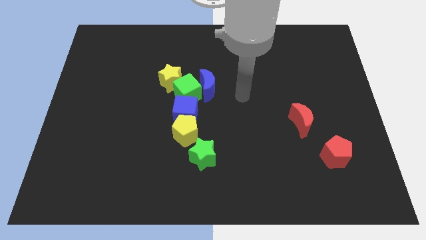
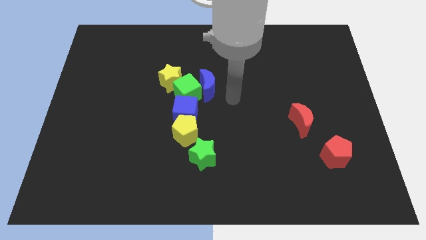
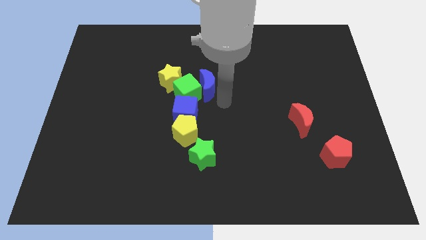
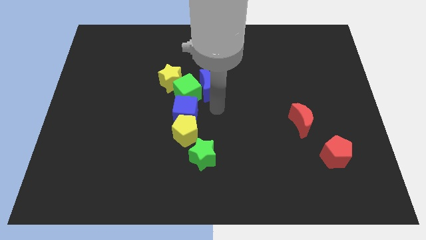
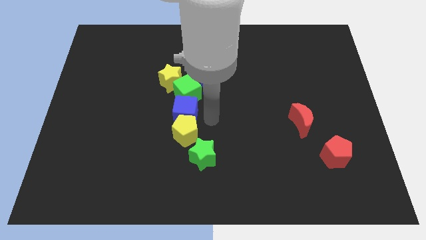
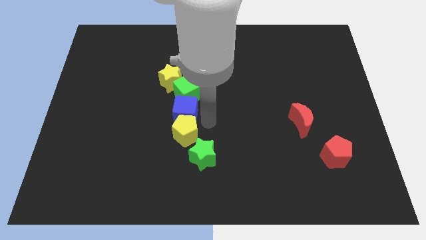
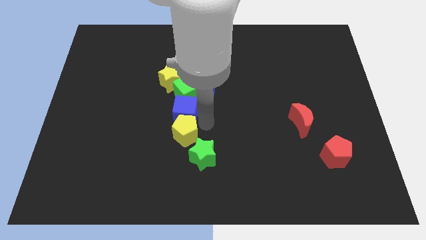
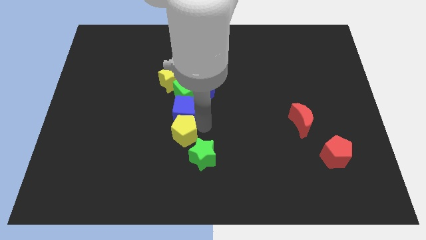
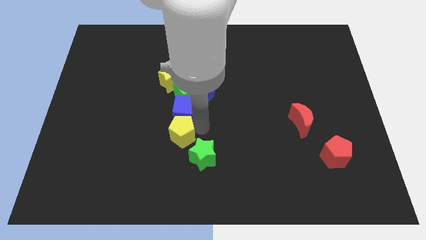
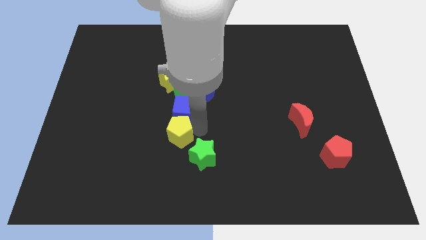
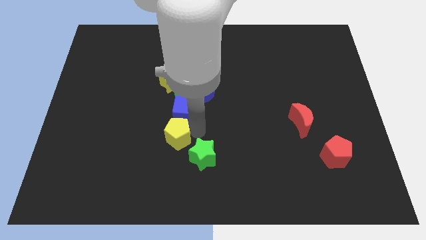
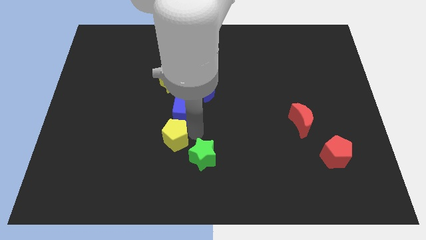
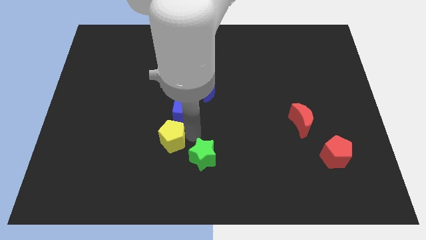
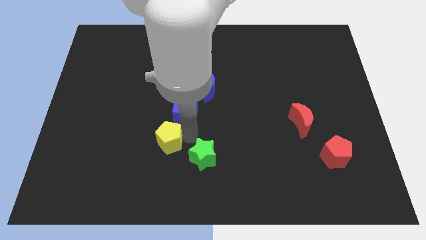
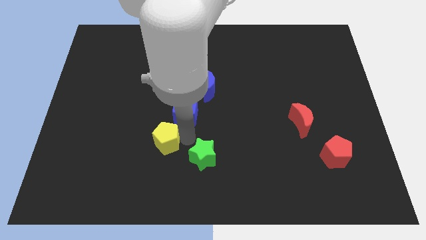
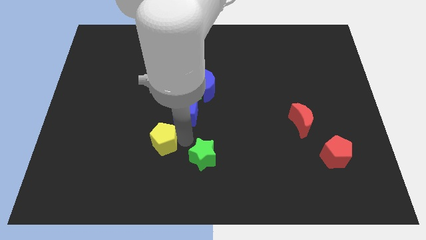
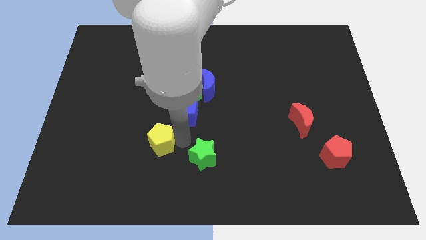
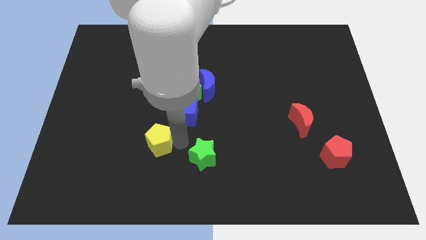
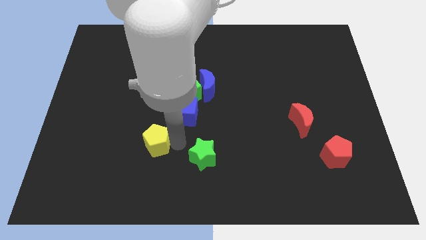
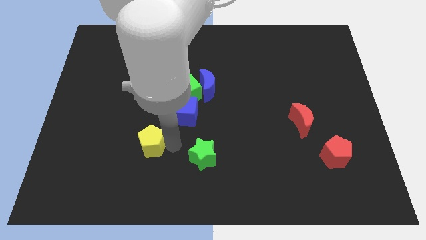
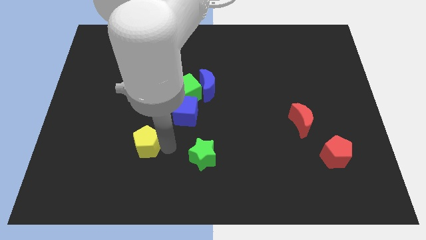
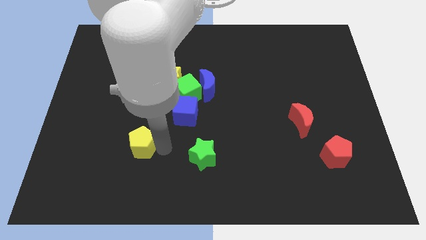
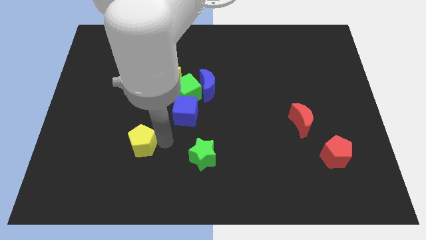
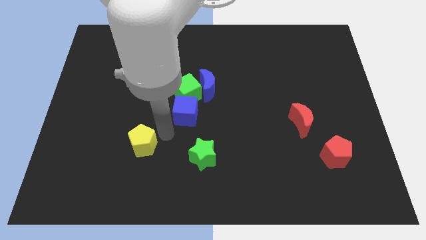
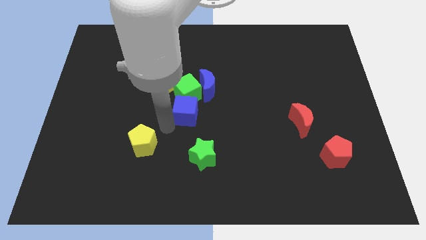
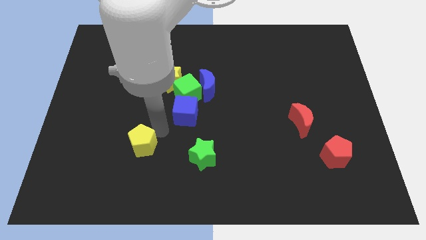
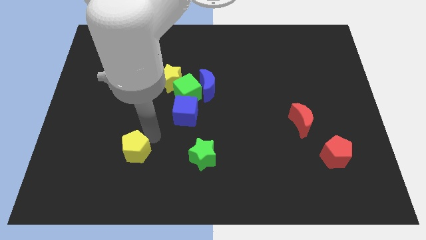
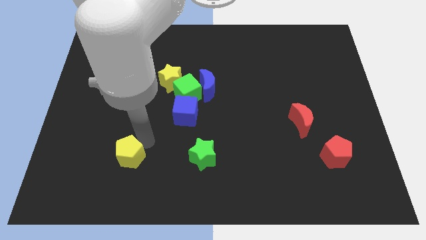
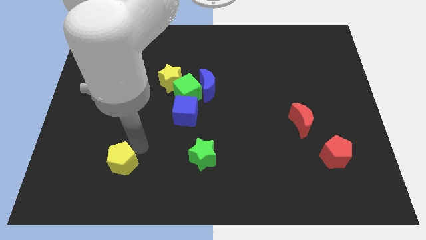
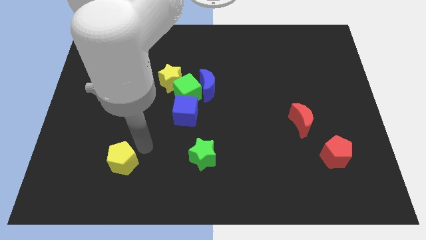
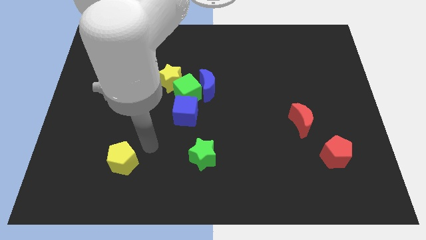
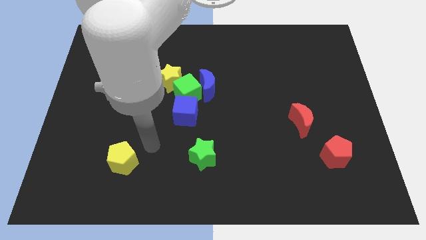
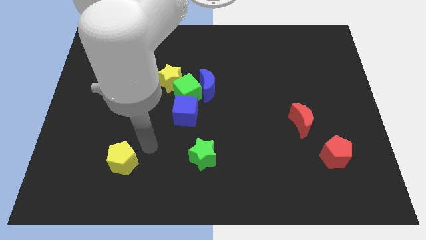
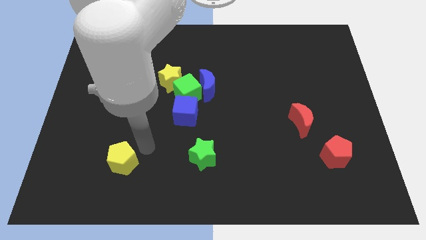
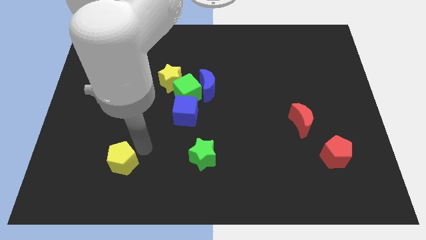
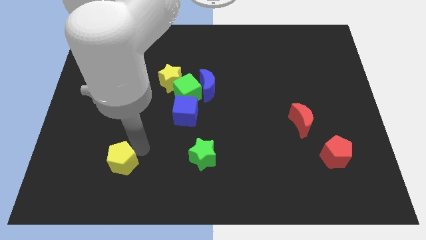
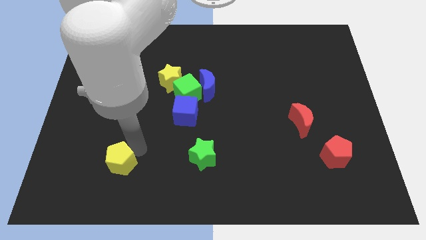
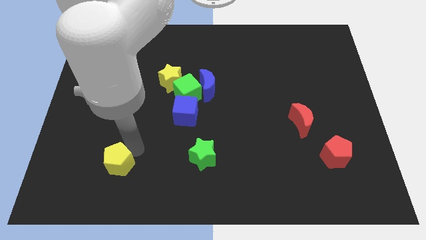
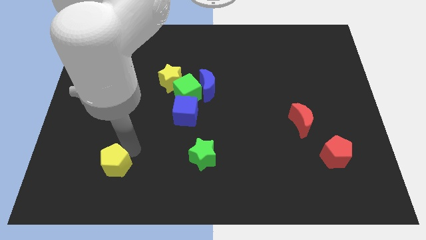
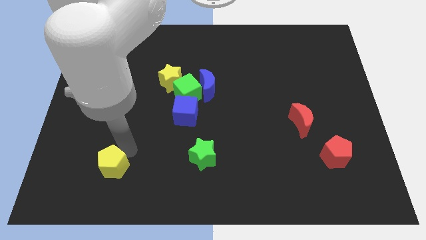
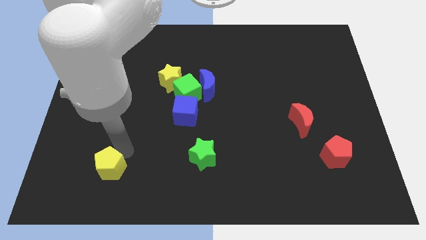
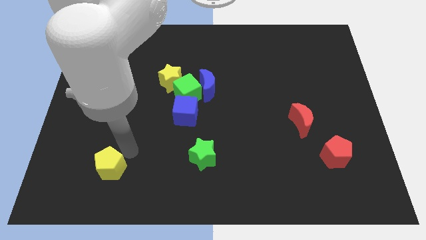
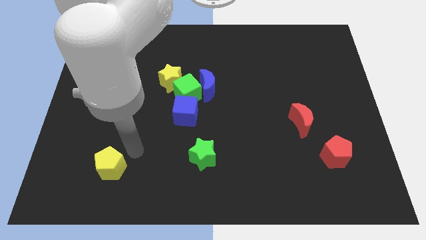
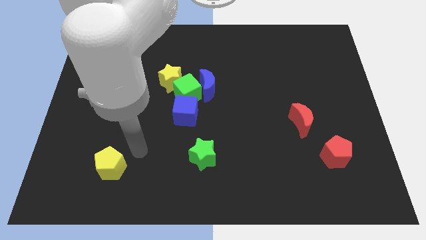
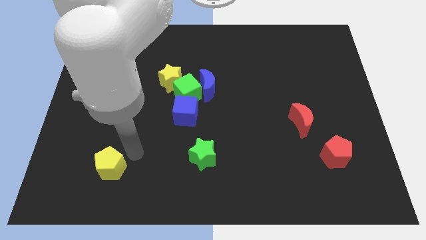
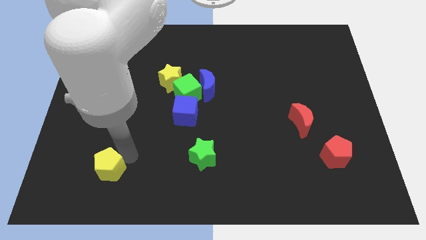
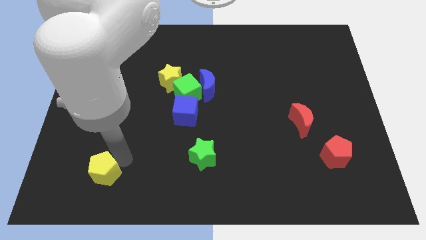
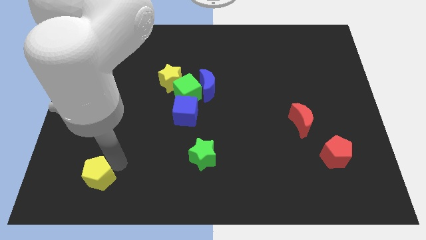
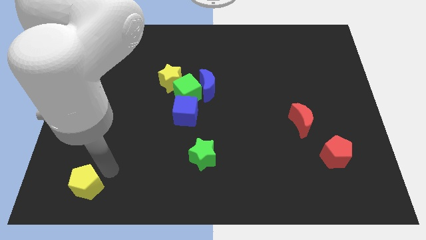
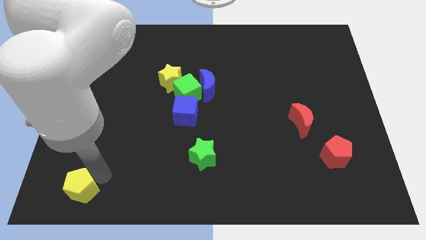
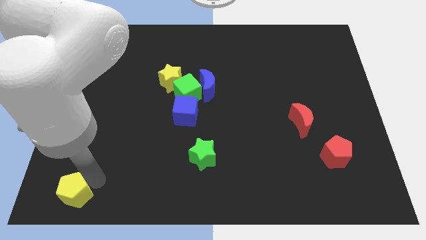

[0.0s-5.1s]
move the yellow pentagon to the bottom left corner

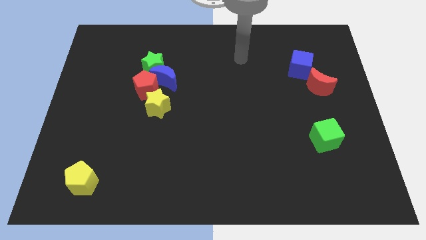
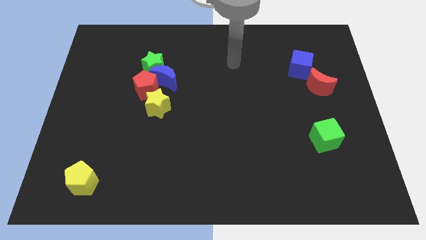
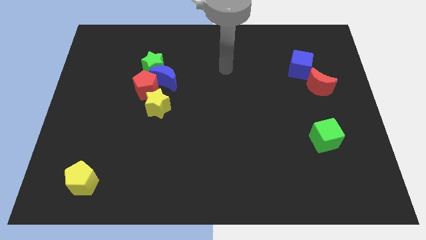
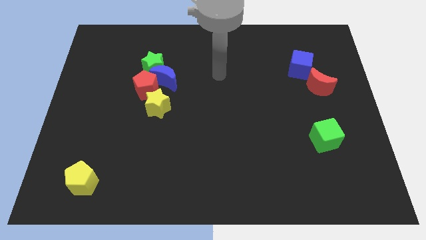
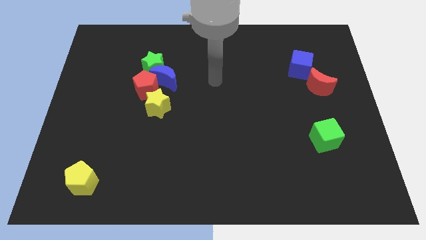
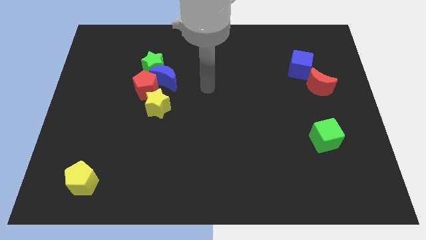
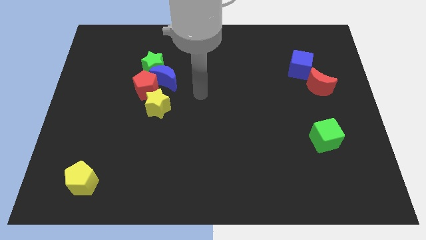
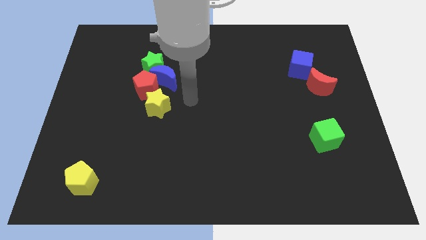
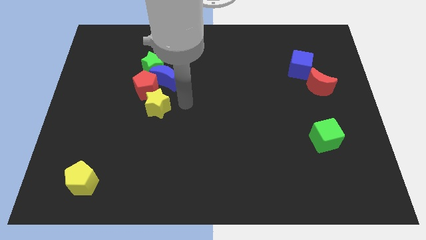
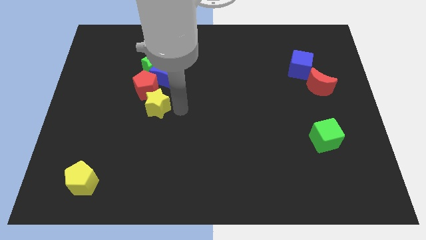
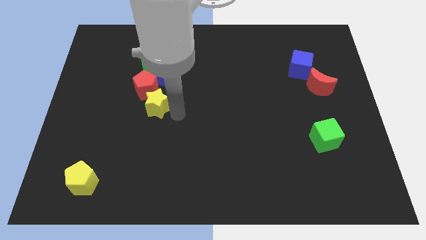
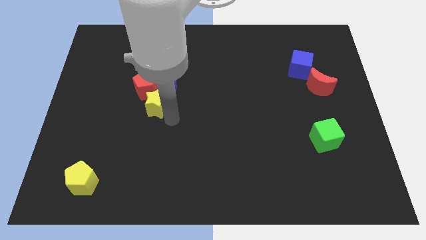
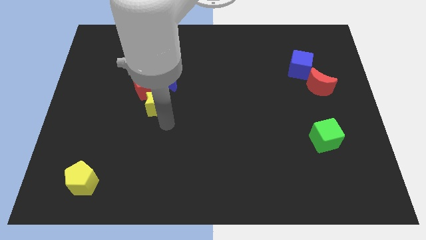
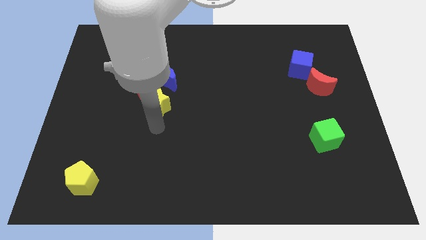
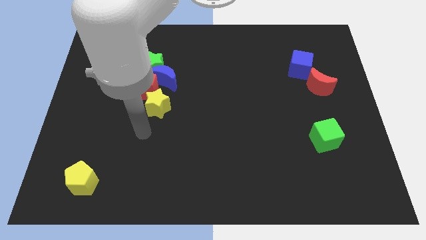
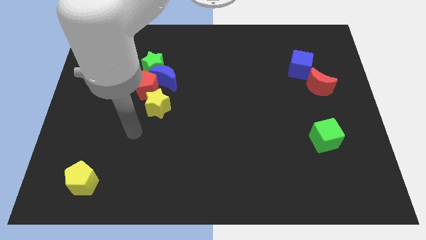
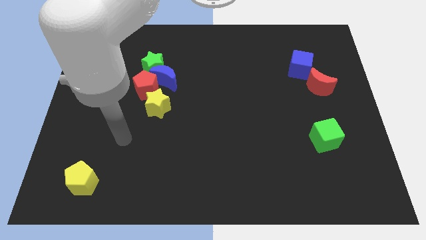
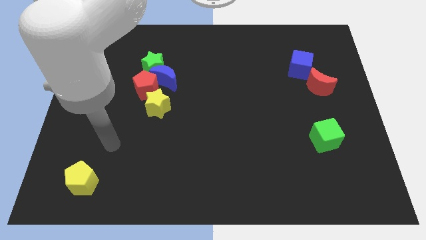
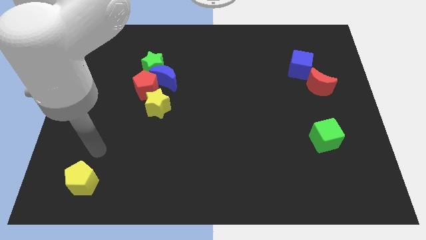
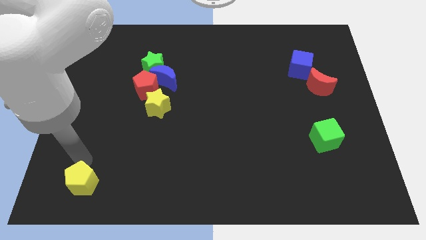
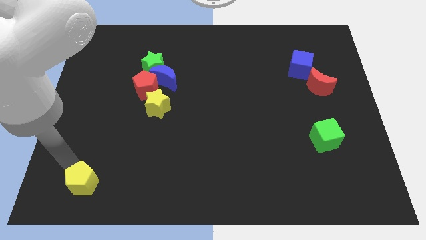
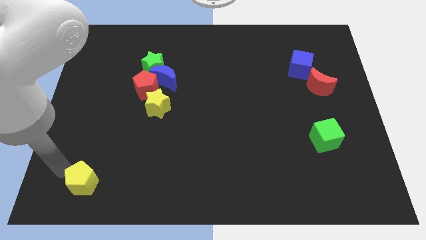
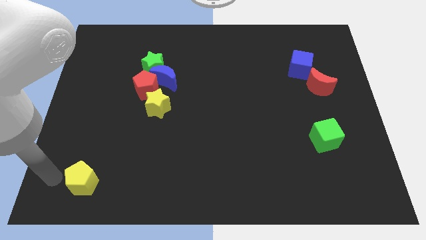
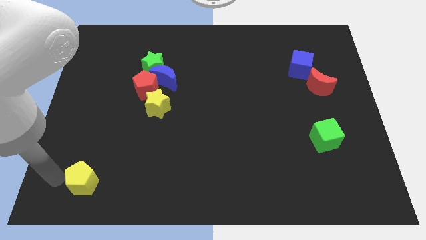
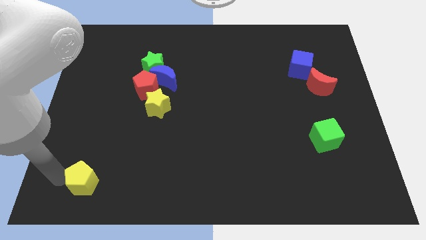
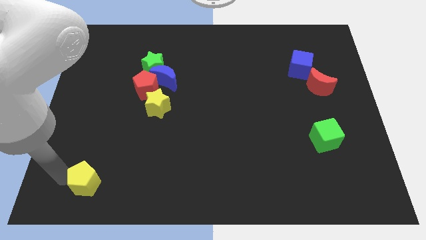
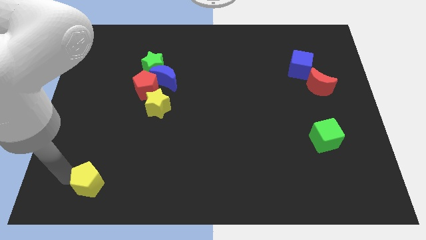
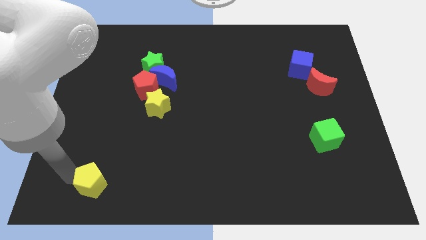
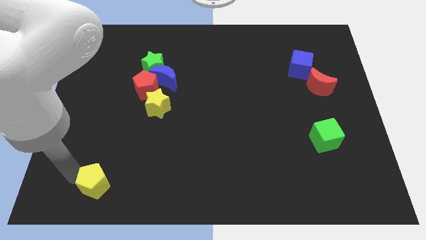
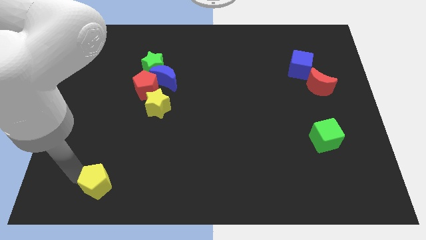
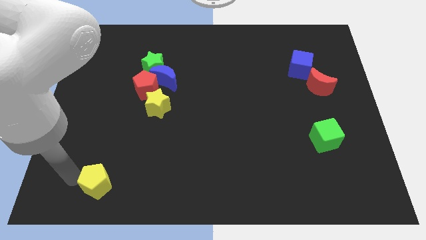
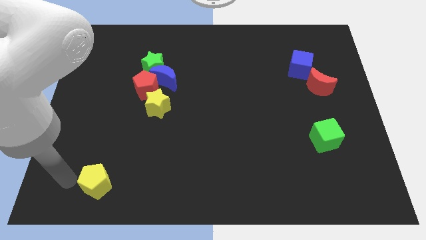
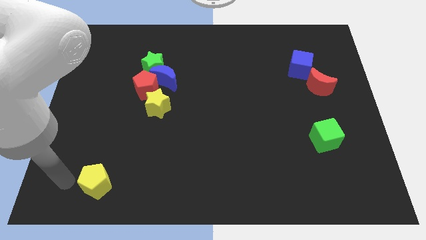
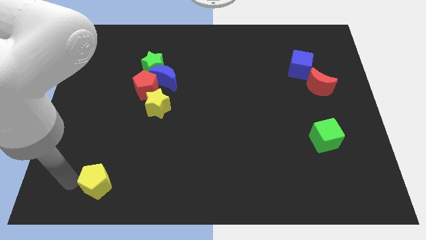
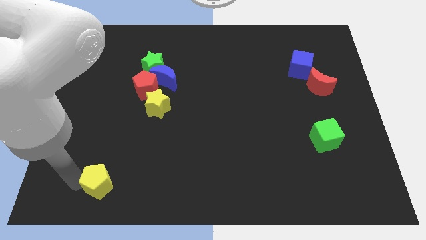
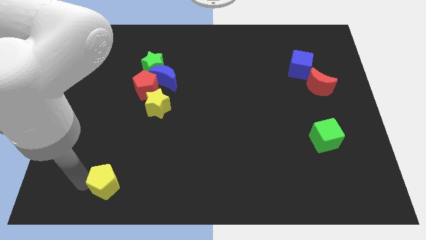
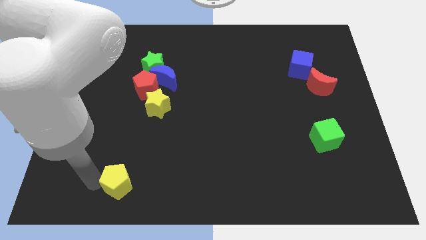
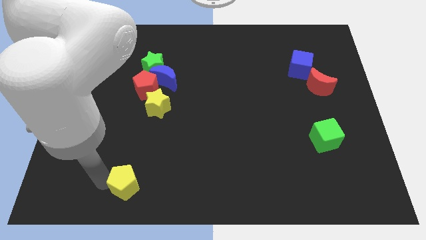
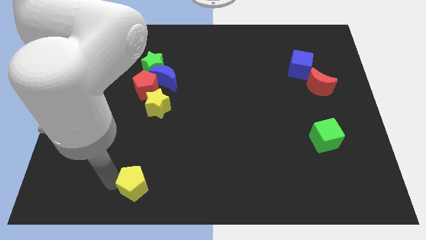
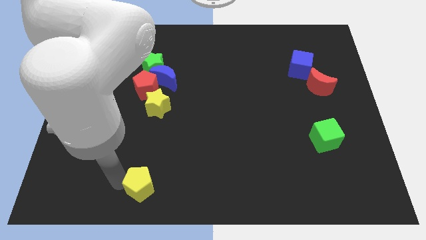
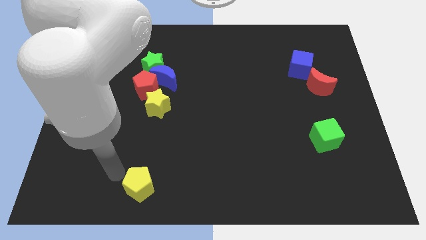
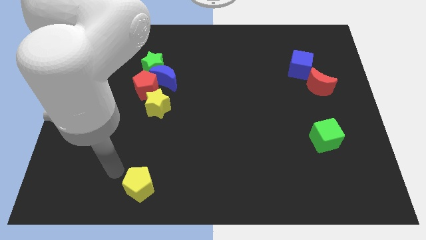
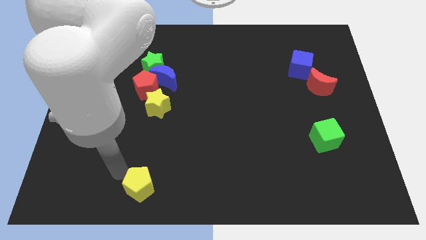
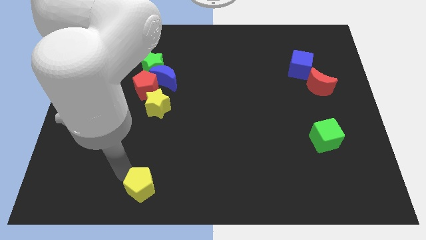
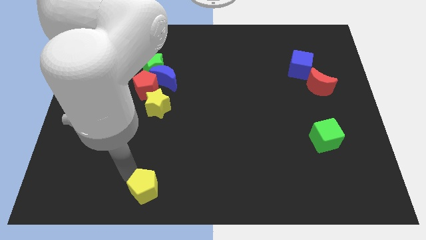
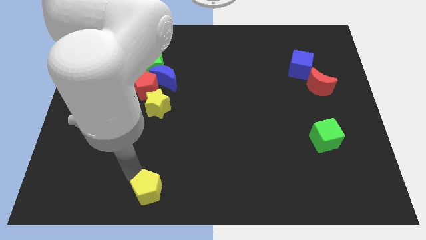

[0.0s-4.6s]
put the yellow pentagon to the bottom side
